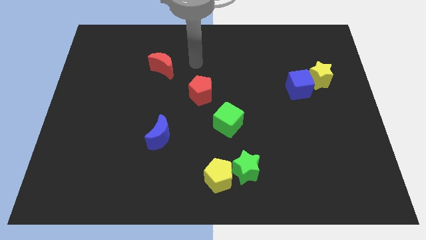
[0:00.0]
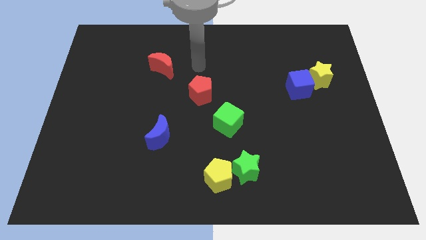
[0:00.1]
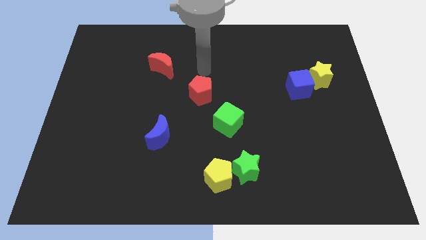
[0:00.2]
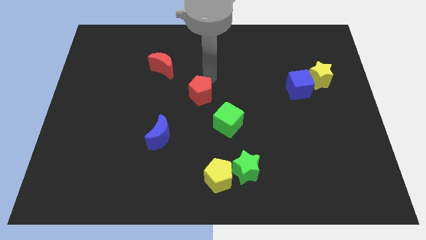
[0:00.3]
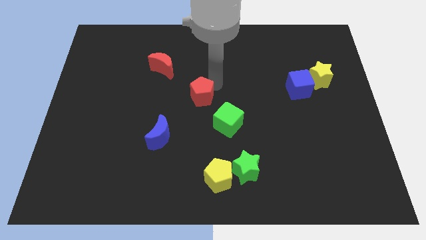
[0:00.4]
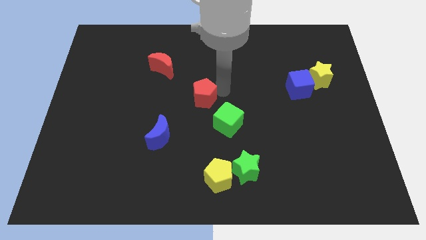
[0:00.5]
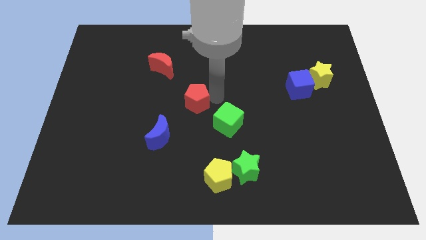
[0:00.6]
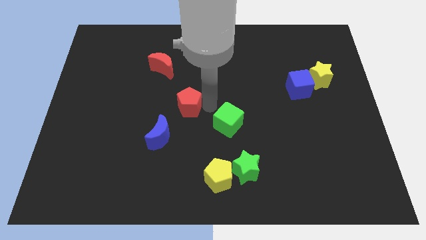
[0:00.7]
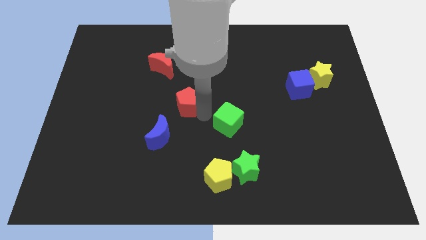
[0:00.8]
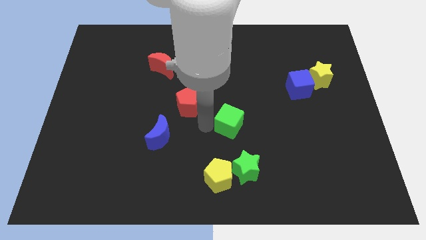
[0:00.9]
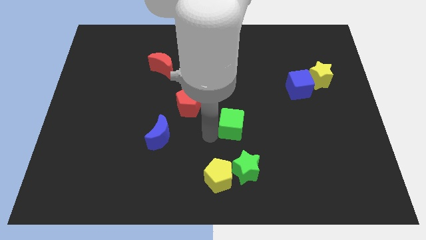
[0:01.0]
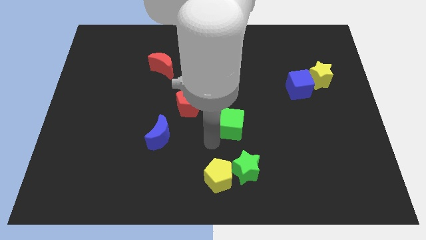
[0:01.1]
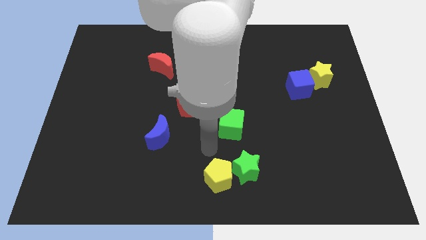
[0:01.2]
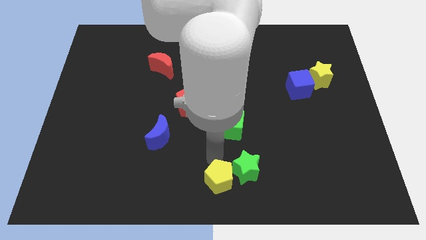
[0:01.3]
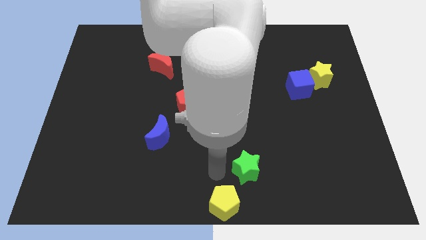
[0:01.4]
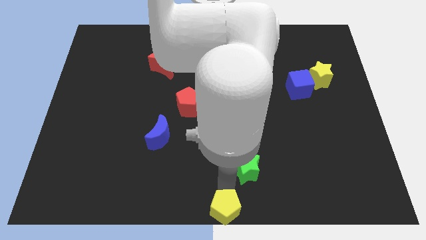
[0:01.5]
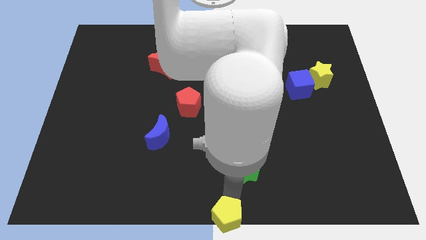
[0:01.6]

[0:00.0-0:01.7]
move the green star away from the yellow pentagon

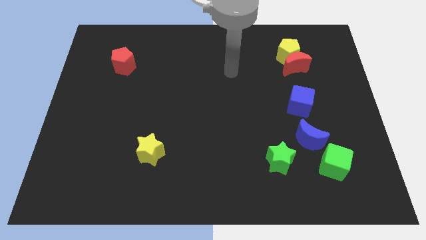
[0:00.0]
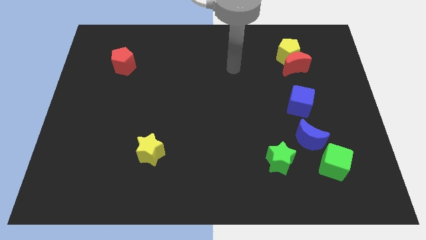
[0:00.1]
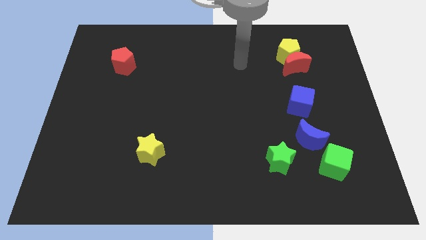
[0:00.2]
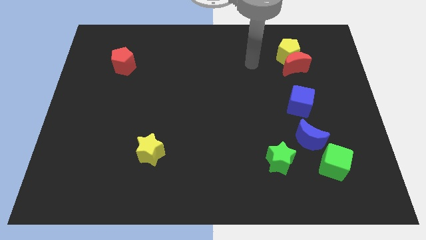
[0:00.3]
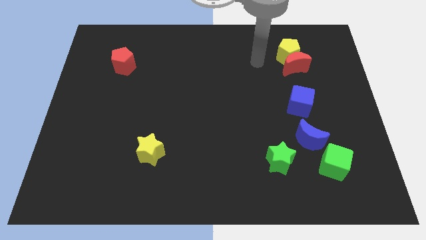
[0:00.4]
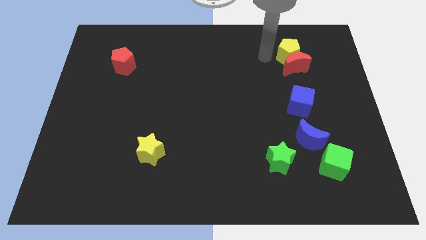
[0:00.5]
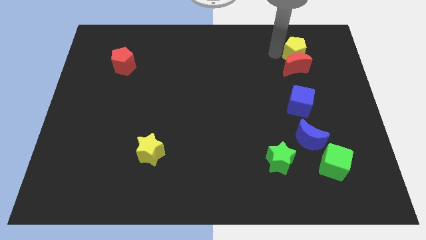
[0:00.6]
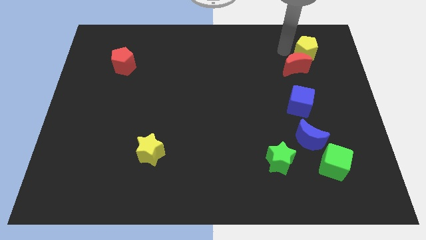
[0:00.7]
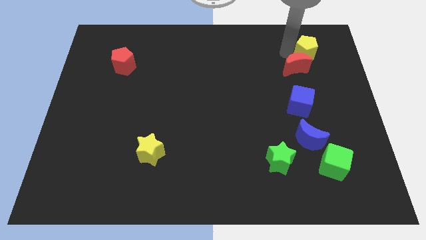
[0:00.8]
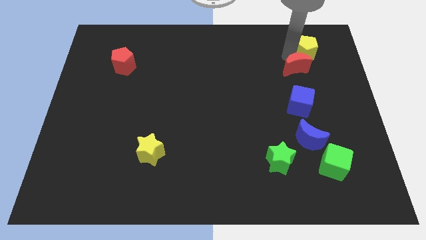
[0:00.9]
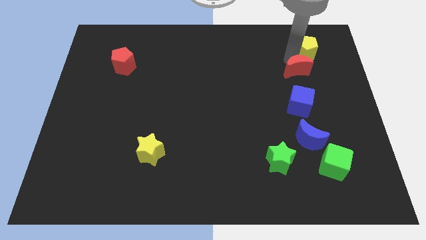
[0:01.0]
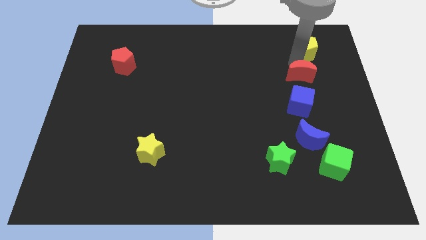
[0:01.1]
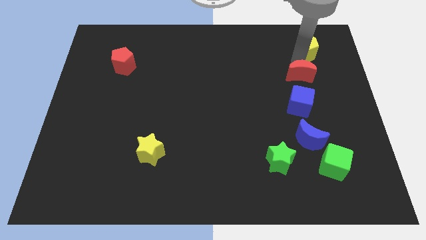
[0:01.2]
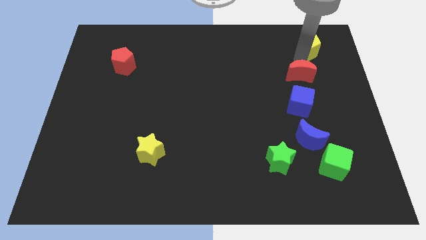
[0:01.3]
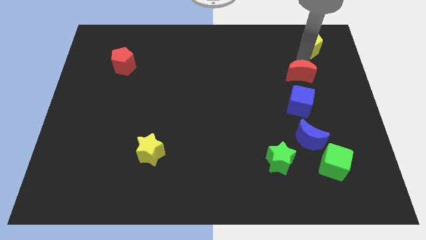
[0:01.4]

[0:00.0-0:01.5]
separate the red moon from the yellow pentagon

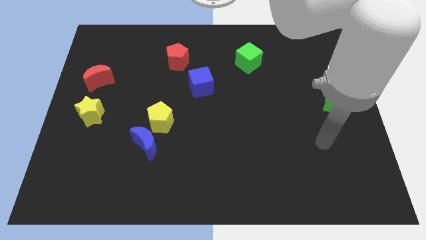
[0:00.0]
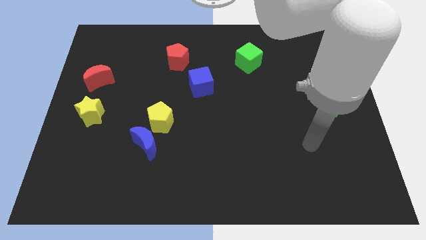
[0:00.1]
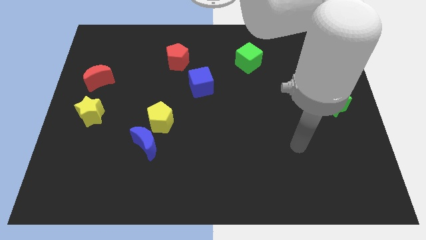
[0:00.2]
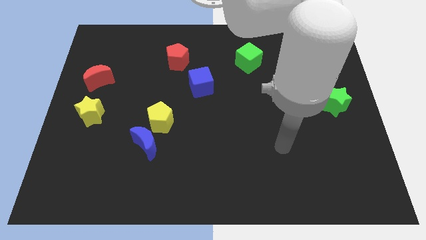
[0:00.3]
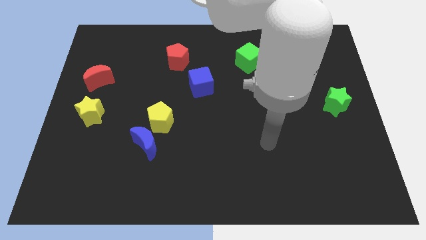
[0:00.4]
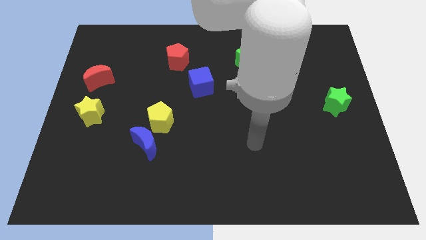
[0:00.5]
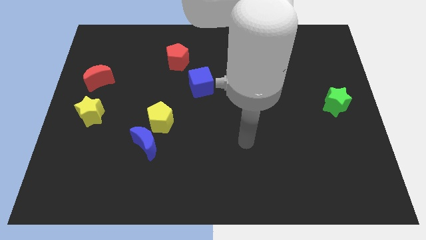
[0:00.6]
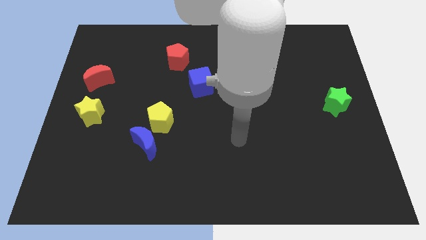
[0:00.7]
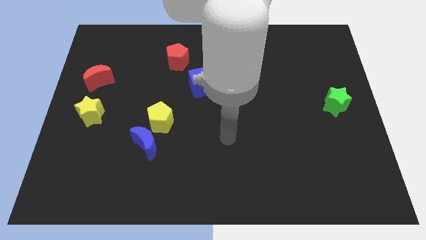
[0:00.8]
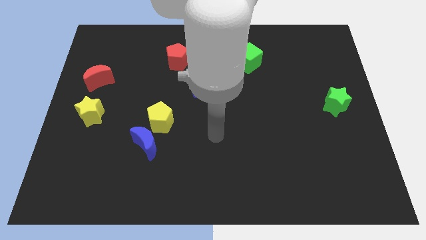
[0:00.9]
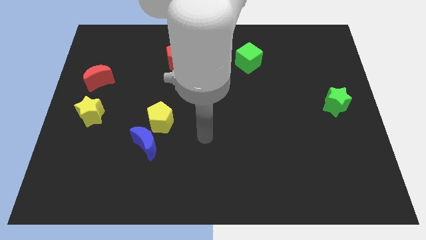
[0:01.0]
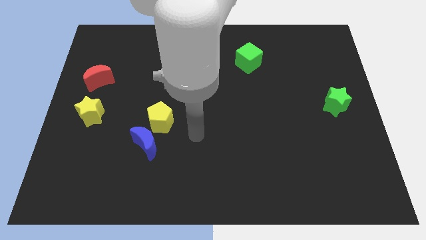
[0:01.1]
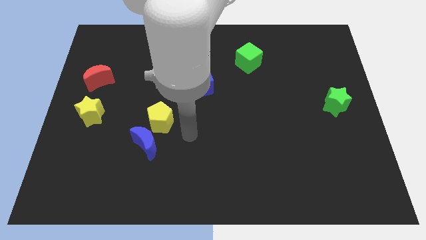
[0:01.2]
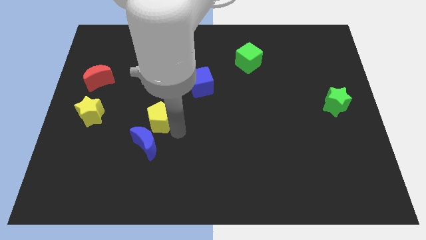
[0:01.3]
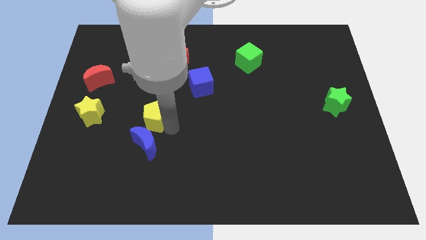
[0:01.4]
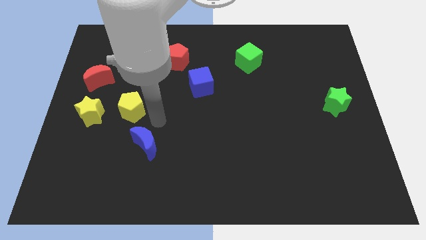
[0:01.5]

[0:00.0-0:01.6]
move the blue moon away from the yellow pentagon

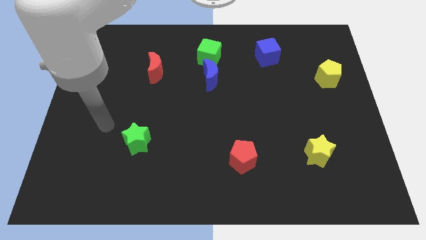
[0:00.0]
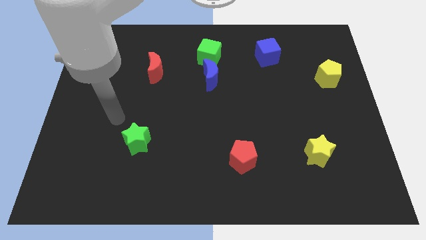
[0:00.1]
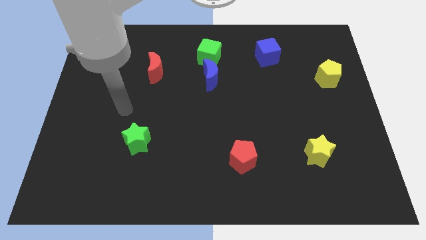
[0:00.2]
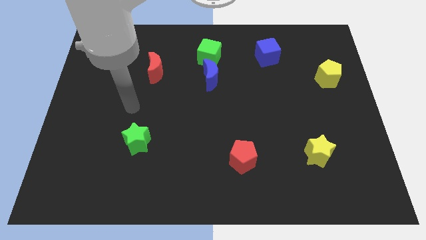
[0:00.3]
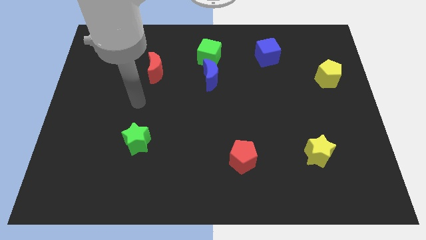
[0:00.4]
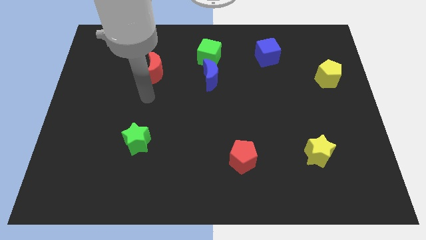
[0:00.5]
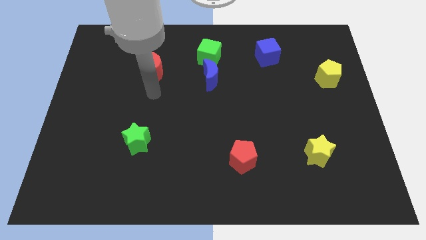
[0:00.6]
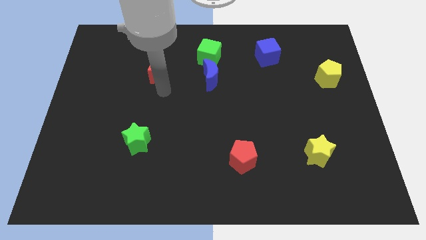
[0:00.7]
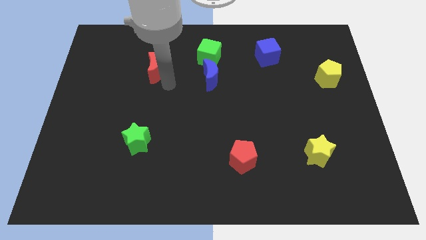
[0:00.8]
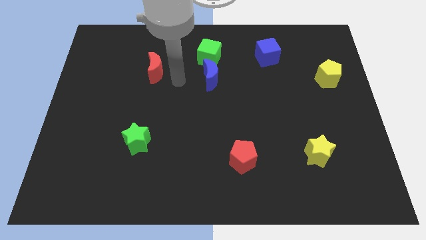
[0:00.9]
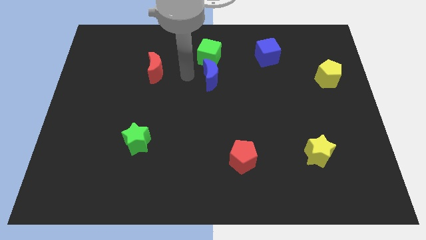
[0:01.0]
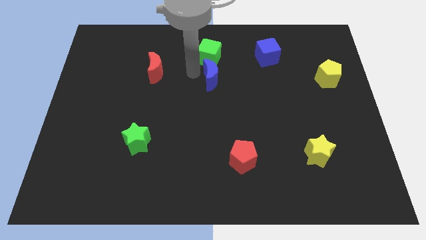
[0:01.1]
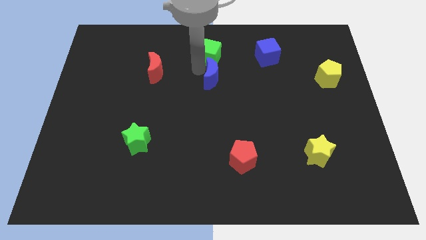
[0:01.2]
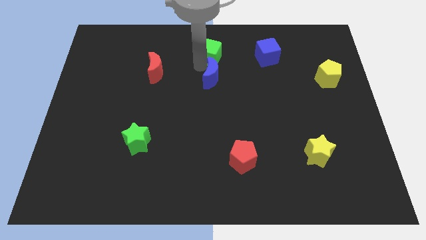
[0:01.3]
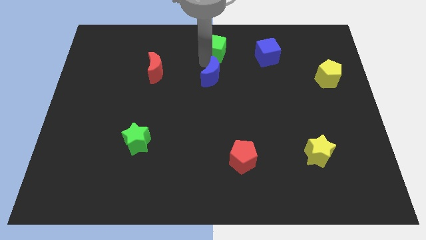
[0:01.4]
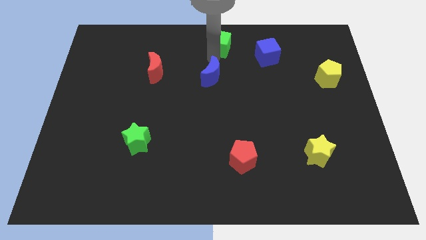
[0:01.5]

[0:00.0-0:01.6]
move the blue moon away from the green cube

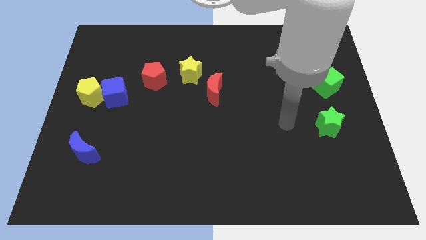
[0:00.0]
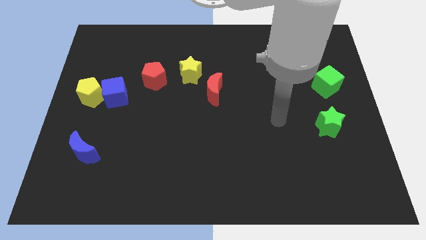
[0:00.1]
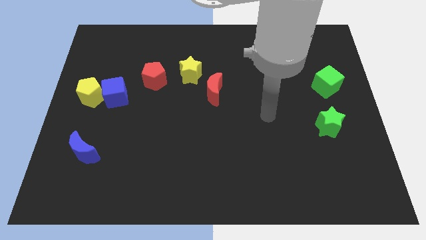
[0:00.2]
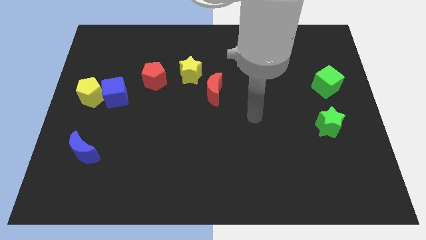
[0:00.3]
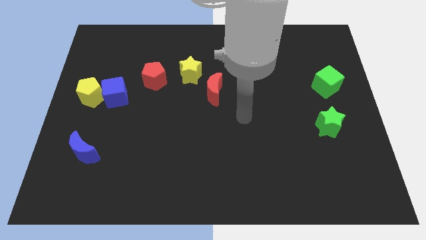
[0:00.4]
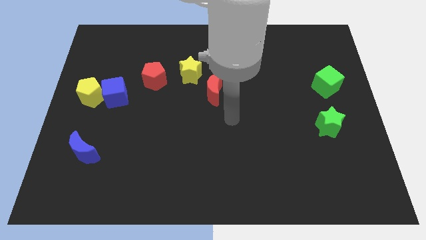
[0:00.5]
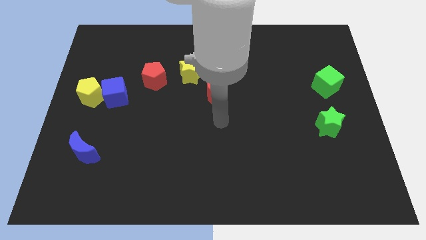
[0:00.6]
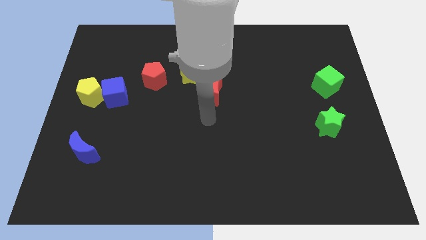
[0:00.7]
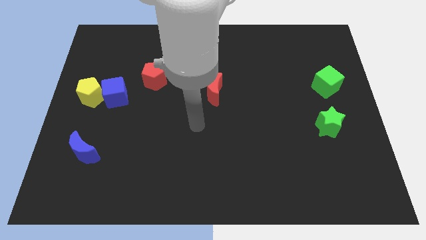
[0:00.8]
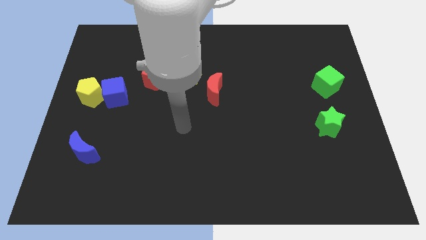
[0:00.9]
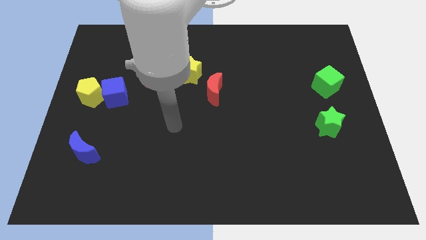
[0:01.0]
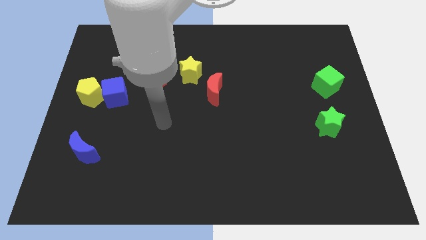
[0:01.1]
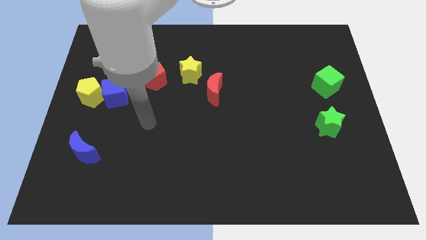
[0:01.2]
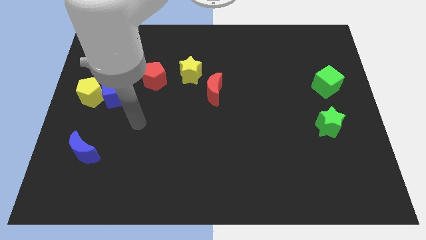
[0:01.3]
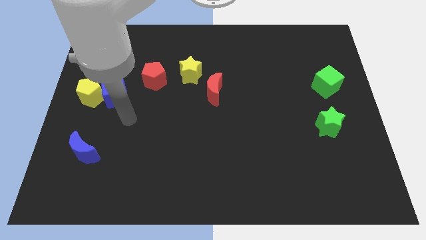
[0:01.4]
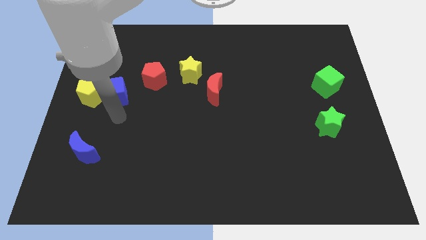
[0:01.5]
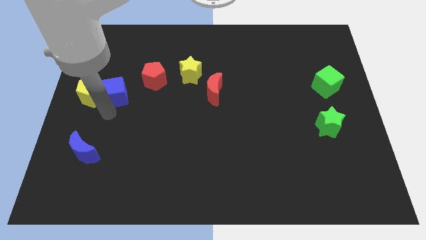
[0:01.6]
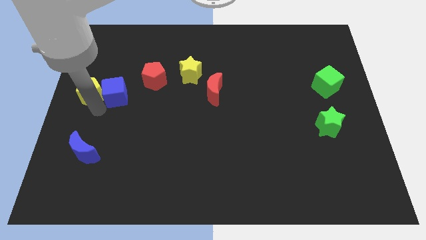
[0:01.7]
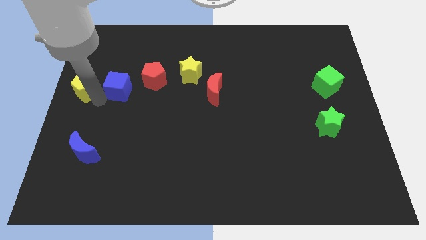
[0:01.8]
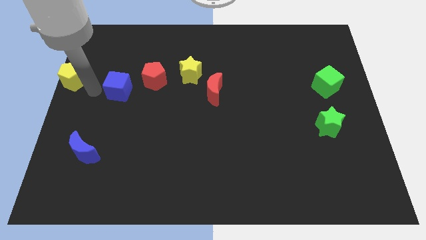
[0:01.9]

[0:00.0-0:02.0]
move the blue cube away from the yellow pentagon

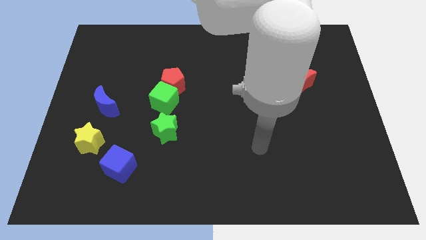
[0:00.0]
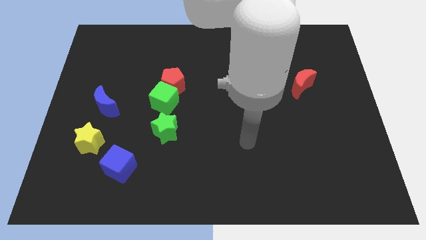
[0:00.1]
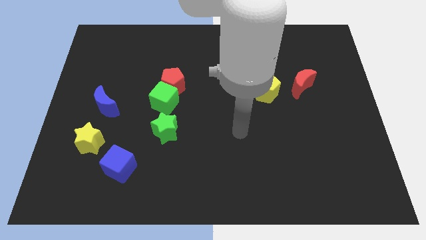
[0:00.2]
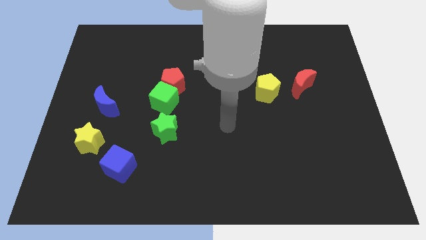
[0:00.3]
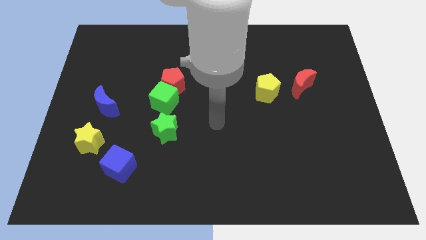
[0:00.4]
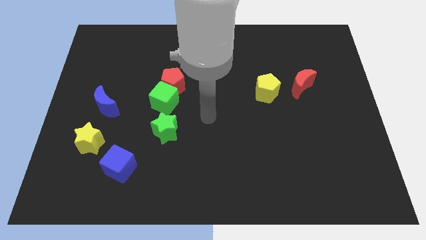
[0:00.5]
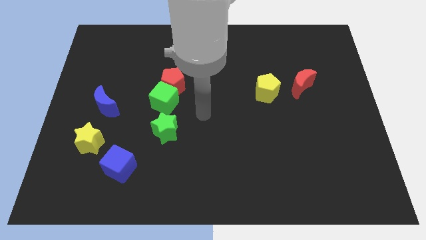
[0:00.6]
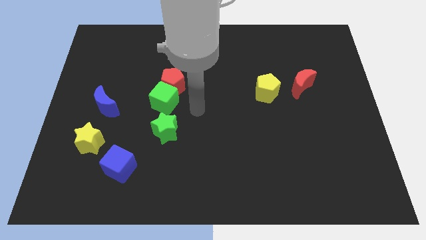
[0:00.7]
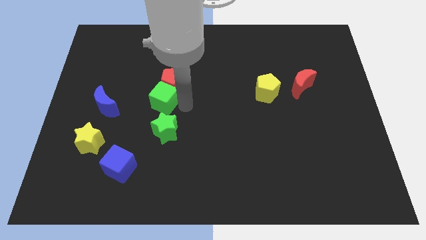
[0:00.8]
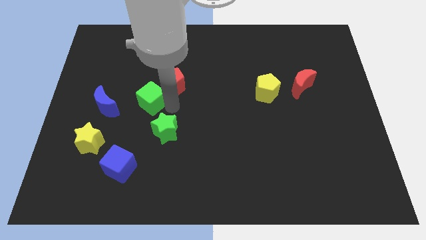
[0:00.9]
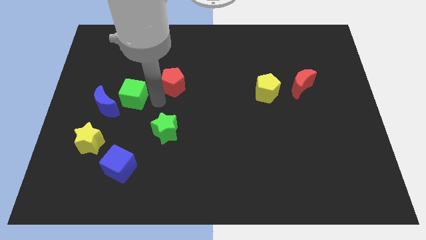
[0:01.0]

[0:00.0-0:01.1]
move the red pentagon away from the green cube
